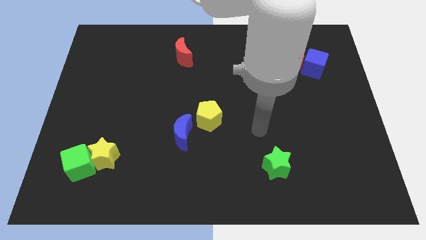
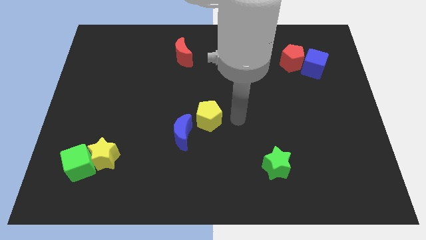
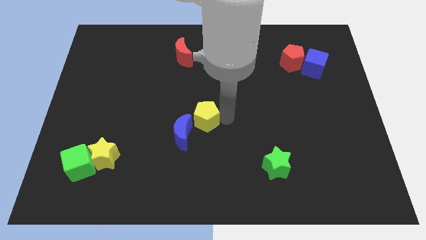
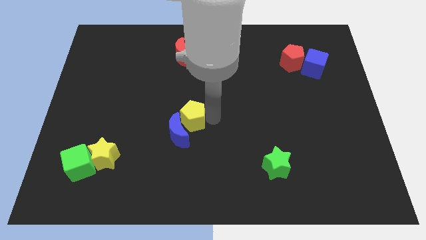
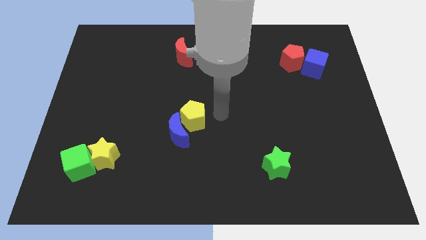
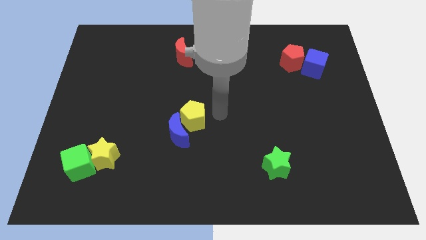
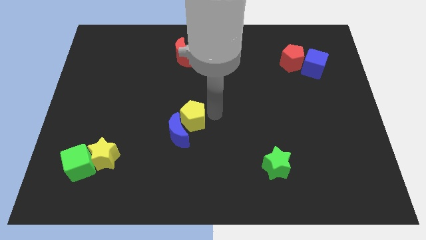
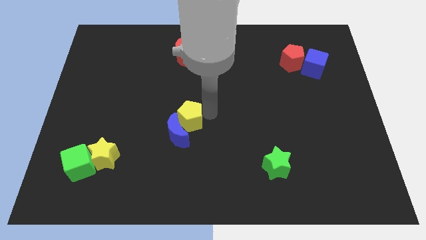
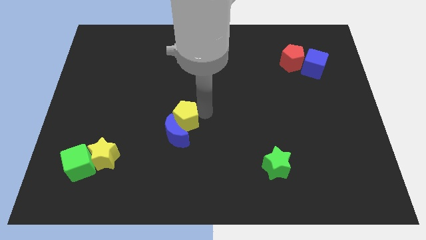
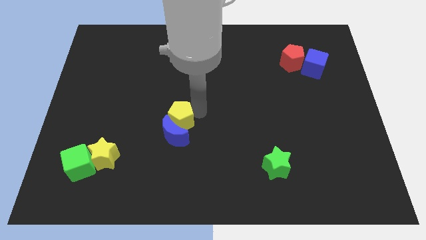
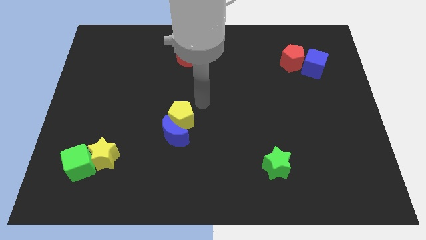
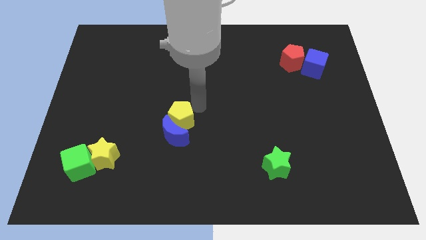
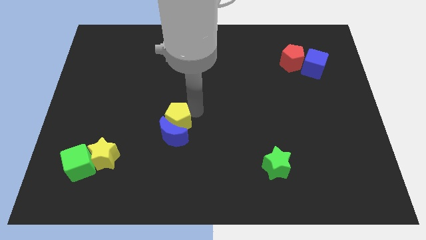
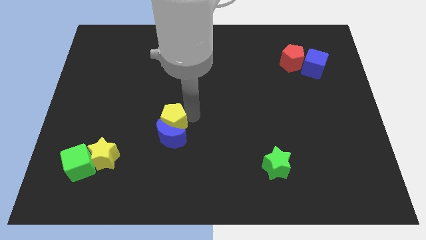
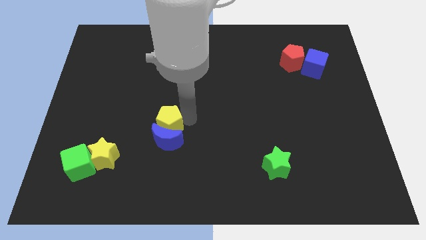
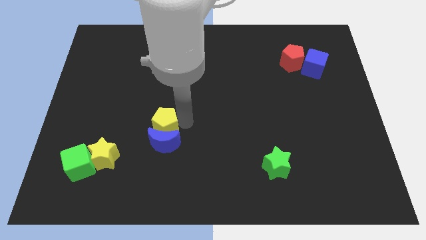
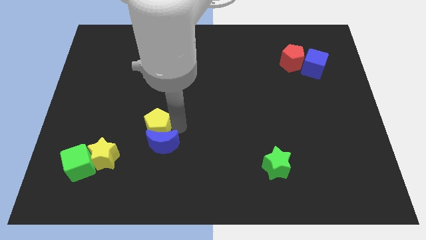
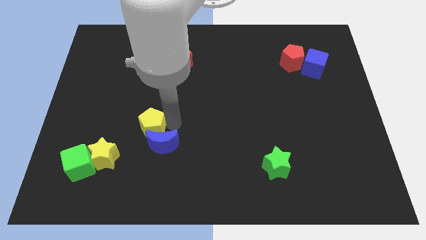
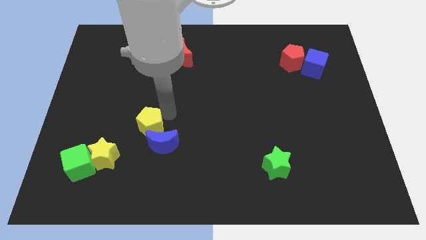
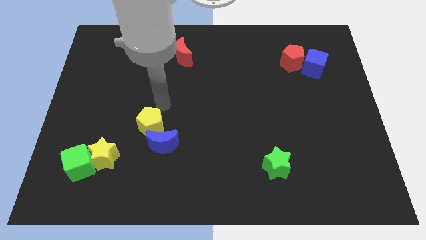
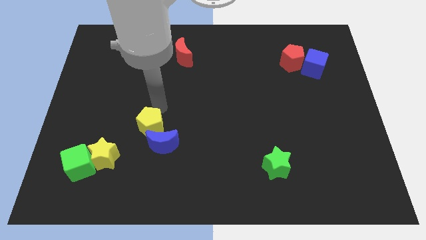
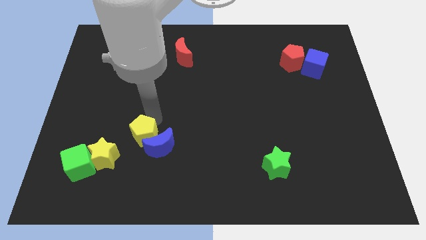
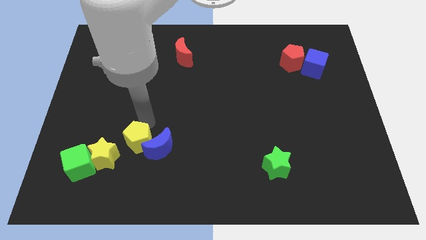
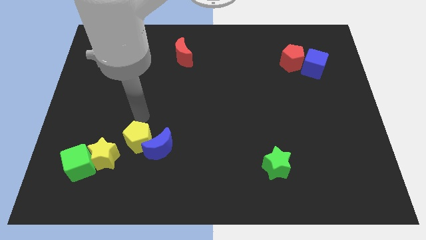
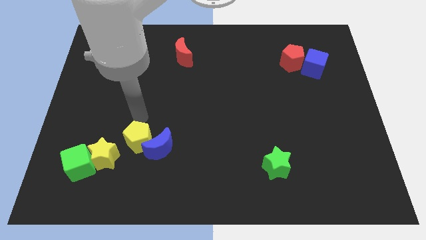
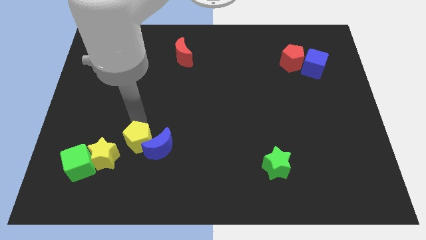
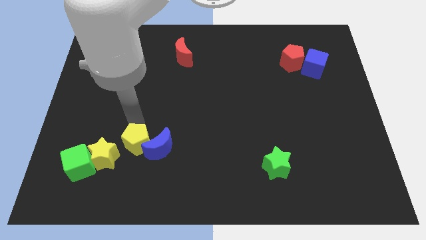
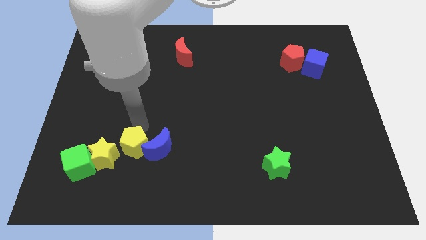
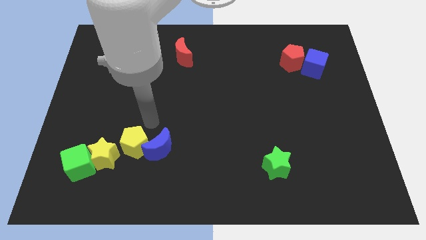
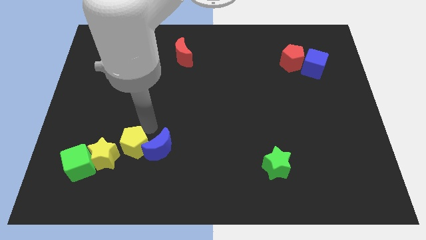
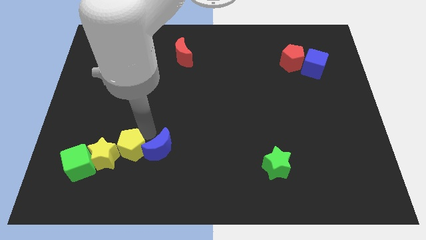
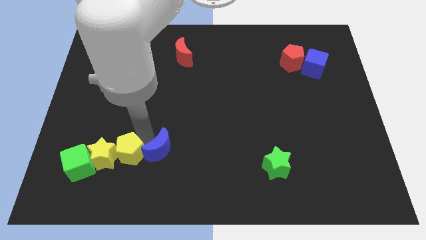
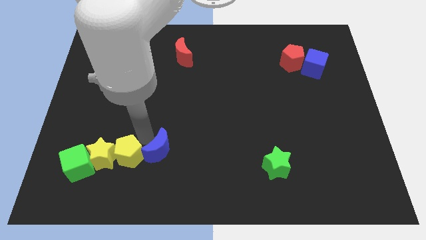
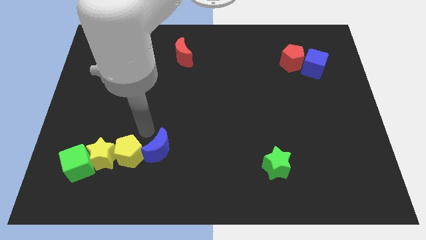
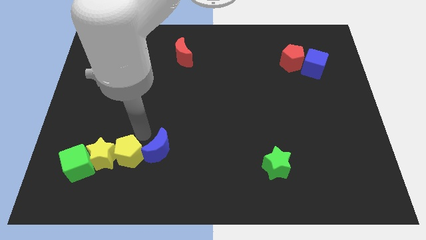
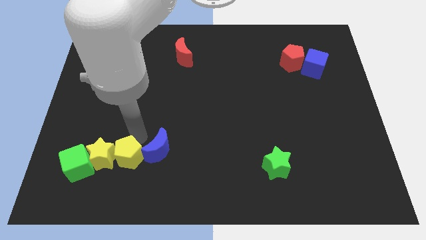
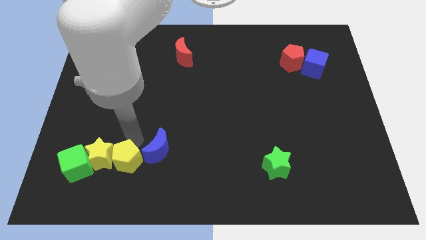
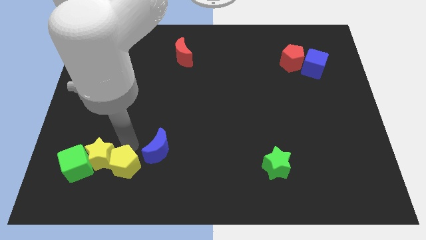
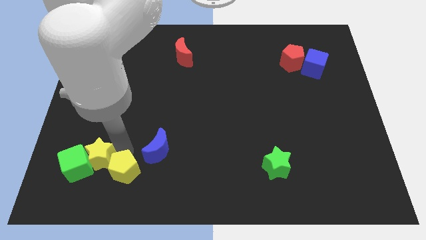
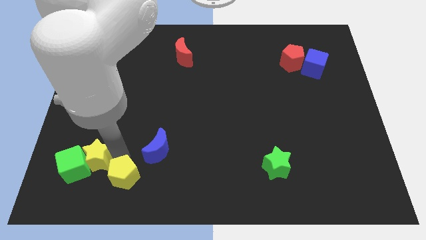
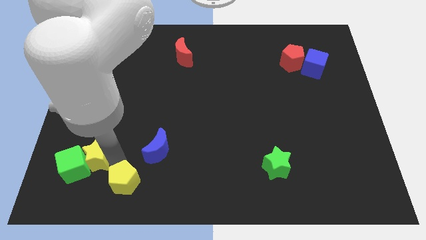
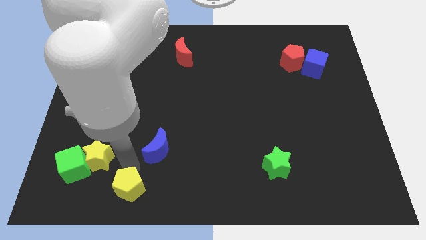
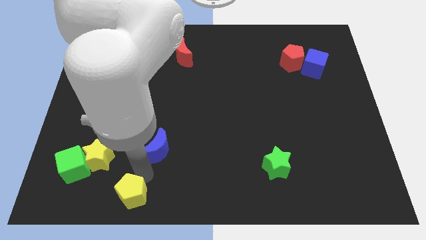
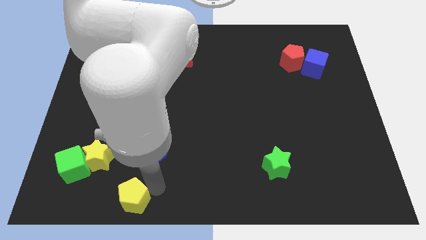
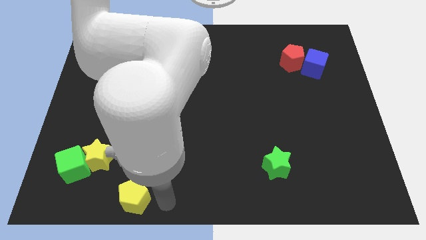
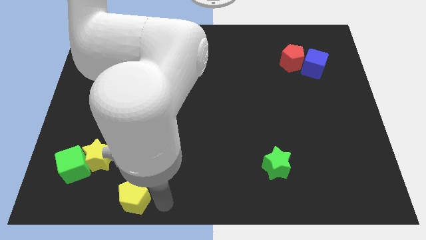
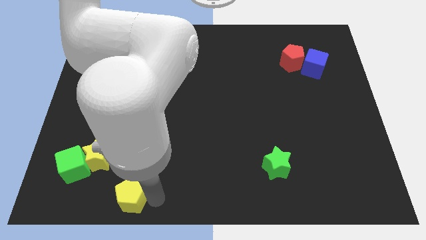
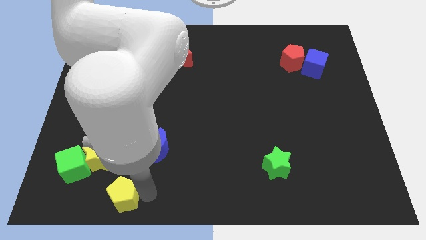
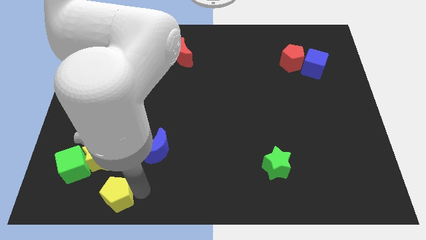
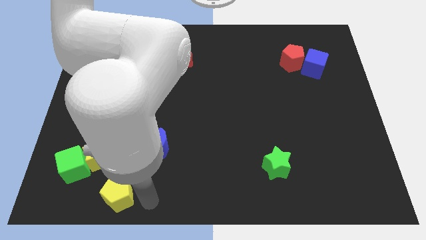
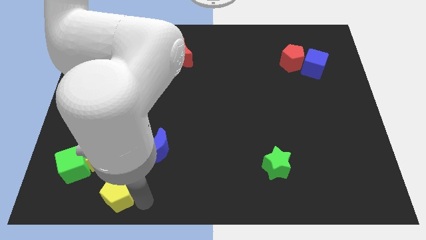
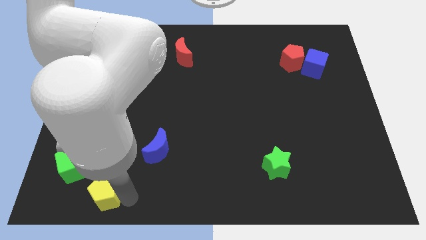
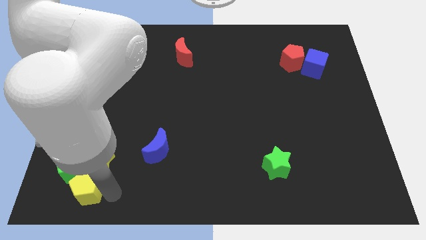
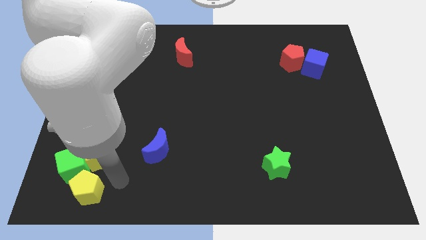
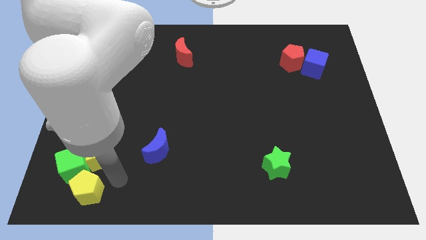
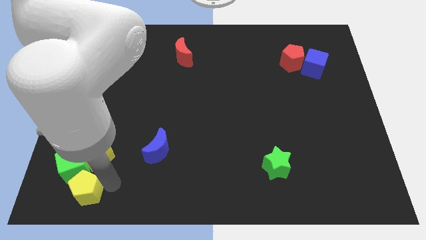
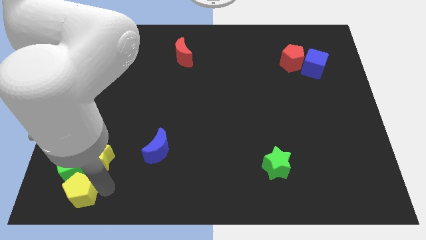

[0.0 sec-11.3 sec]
slide the yellow pentagon to the bottom left of the board
